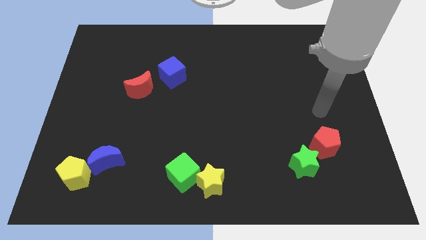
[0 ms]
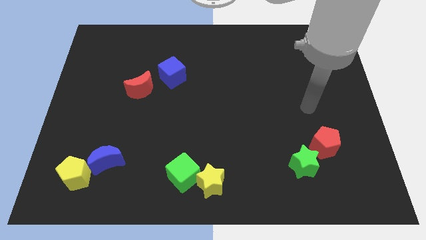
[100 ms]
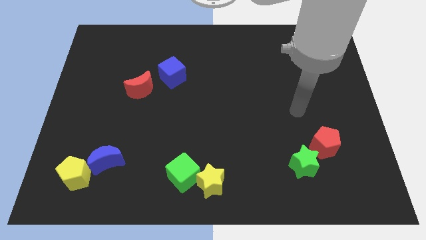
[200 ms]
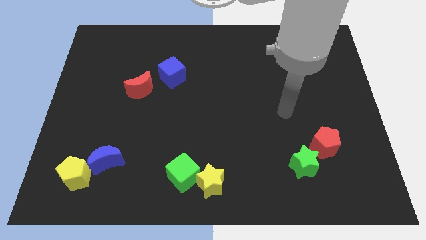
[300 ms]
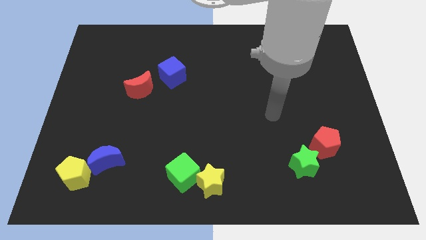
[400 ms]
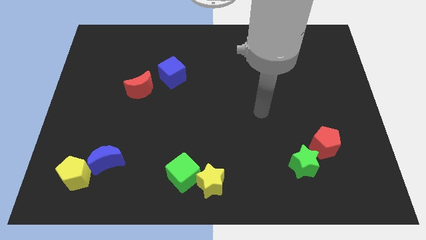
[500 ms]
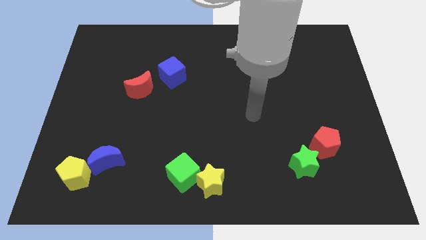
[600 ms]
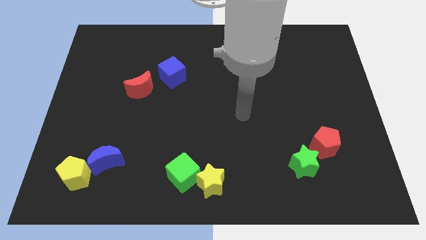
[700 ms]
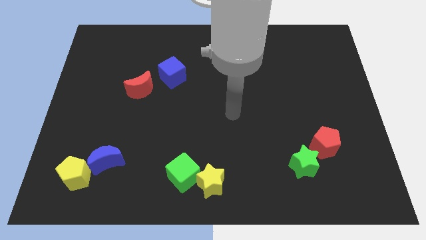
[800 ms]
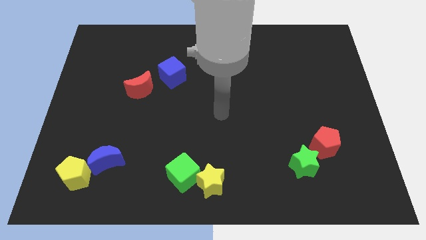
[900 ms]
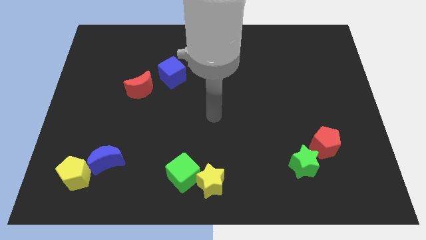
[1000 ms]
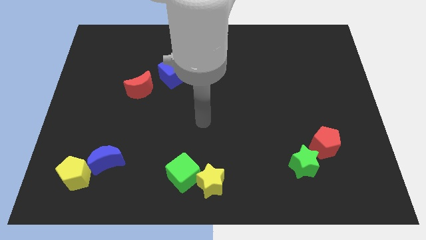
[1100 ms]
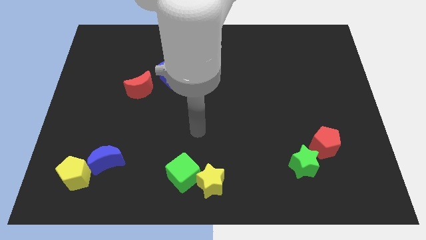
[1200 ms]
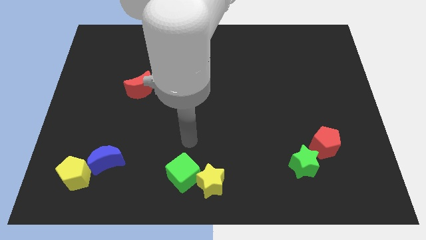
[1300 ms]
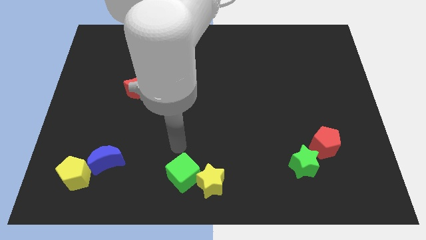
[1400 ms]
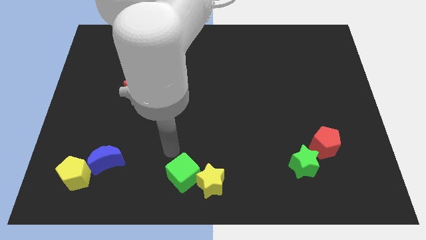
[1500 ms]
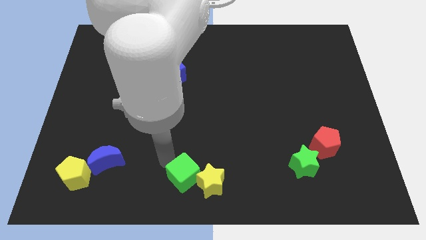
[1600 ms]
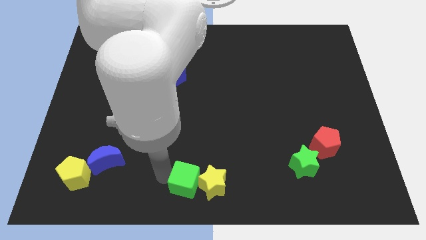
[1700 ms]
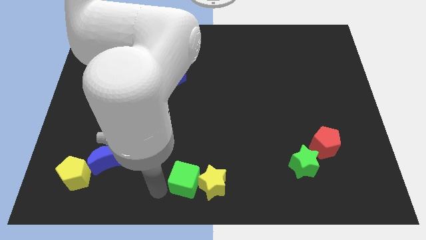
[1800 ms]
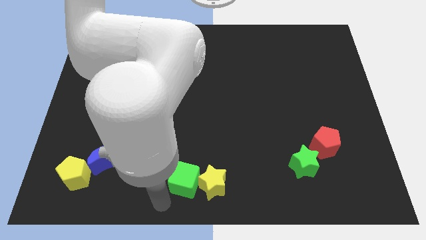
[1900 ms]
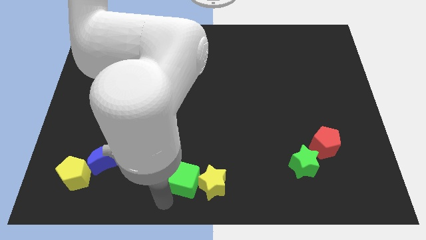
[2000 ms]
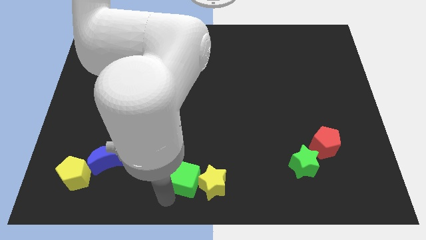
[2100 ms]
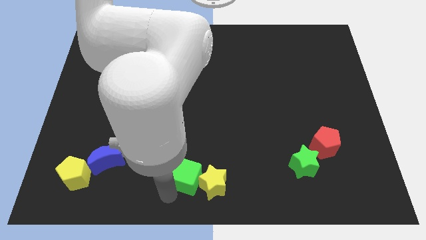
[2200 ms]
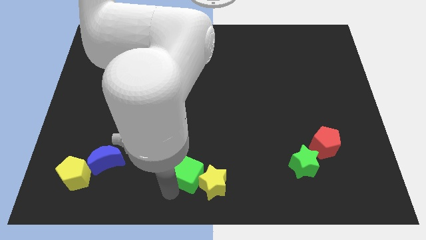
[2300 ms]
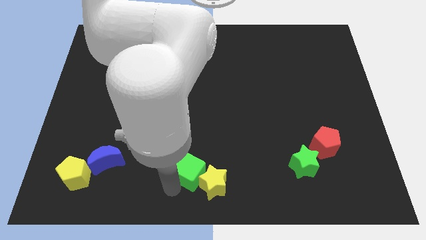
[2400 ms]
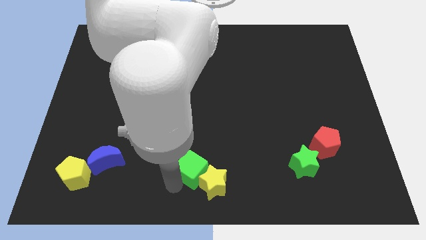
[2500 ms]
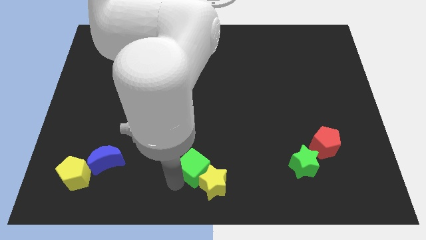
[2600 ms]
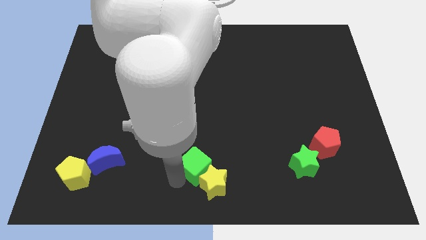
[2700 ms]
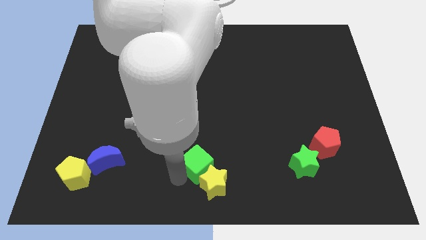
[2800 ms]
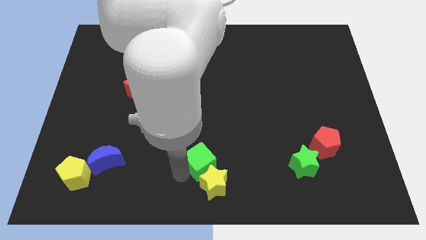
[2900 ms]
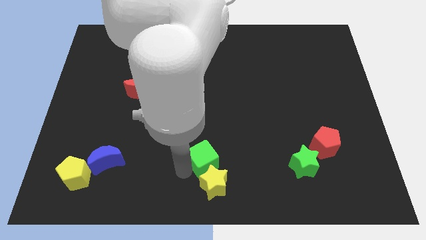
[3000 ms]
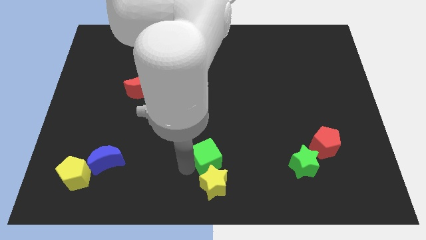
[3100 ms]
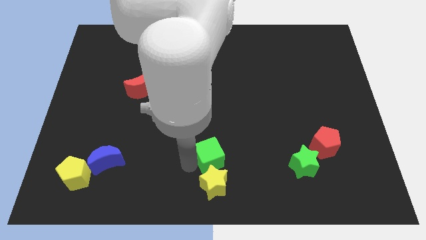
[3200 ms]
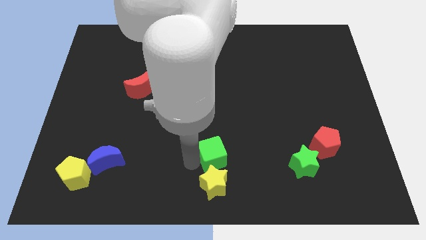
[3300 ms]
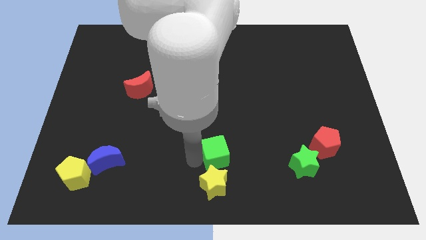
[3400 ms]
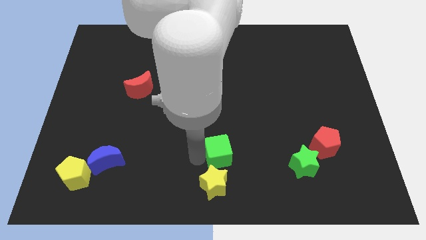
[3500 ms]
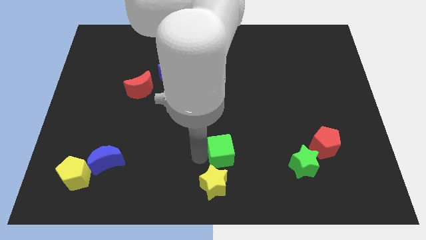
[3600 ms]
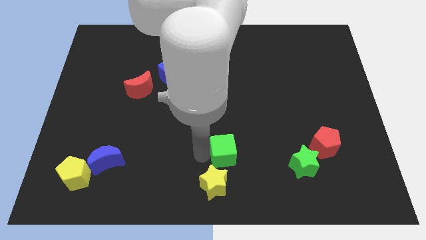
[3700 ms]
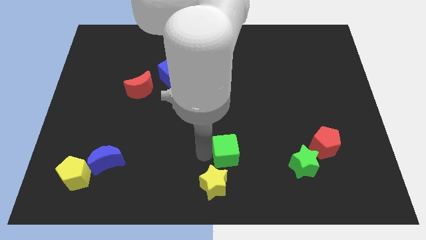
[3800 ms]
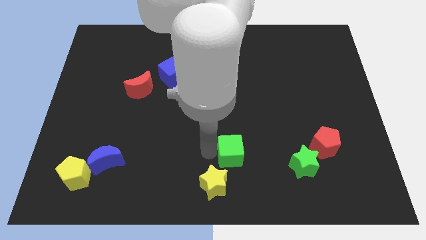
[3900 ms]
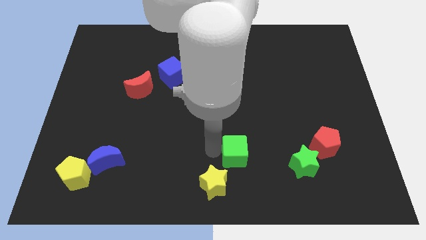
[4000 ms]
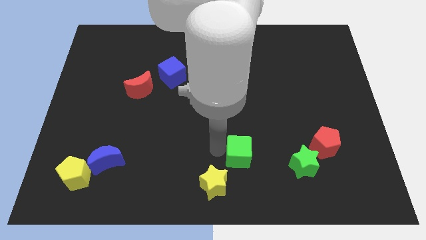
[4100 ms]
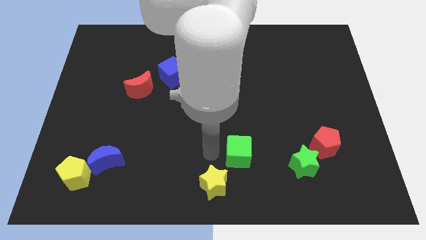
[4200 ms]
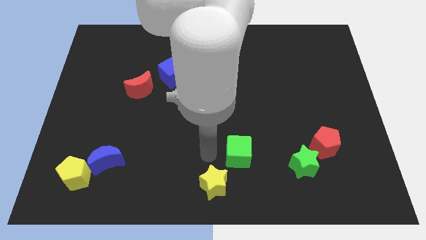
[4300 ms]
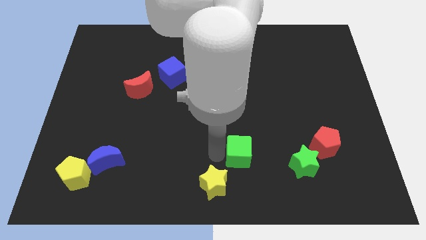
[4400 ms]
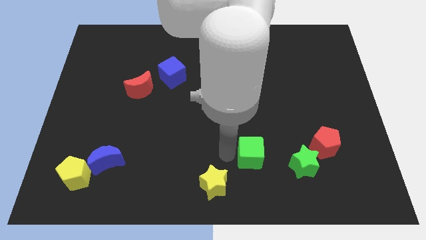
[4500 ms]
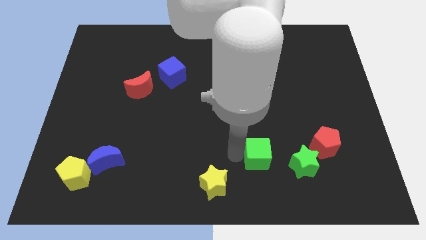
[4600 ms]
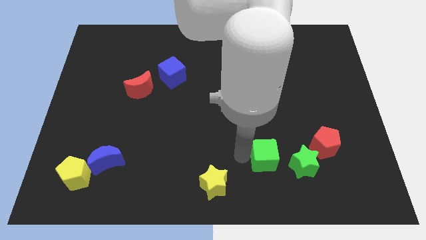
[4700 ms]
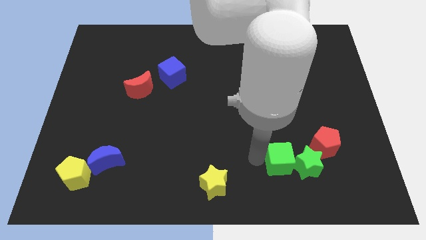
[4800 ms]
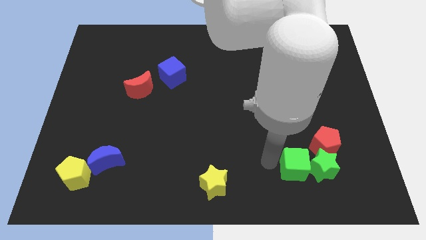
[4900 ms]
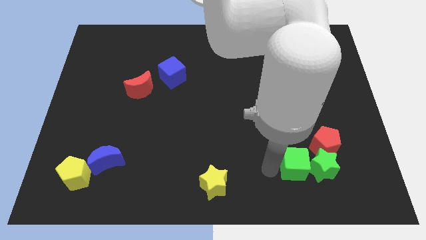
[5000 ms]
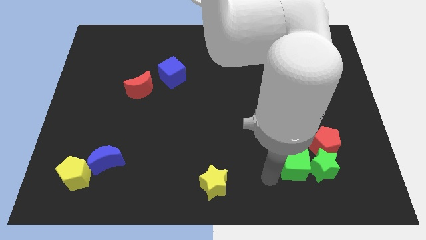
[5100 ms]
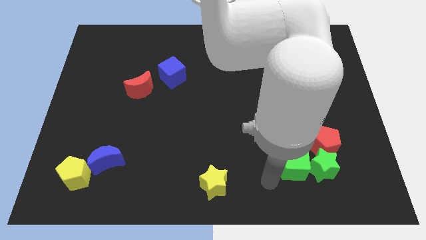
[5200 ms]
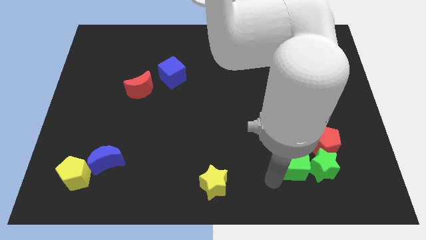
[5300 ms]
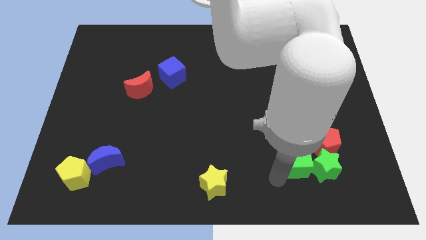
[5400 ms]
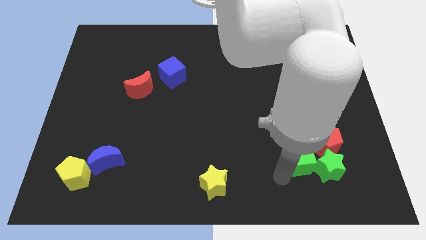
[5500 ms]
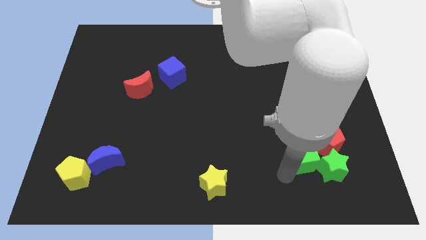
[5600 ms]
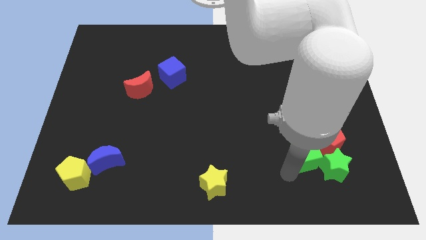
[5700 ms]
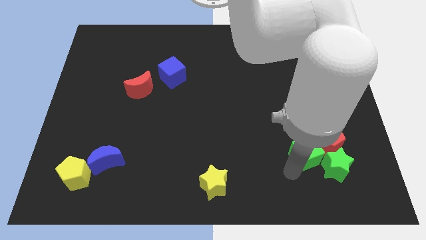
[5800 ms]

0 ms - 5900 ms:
push the green cube close to the red pentagon

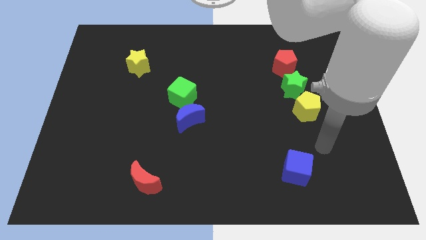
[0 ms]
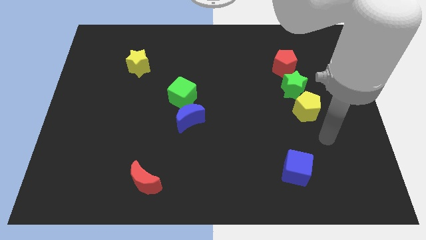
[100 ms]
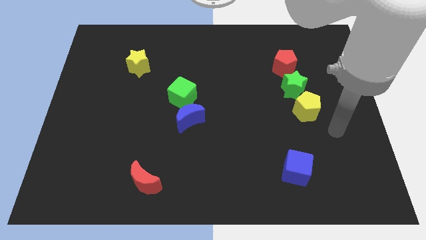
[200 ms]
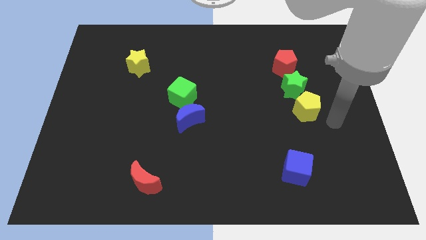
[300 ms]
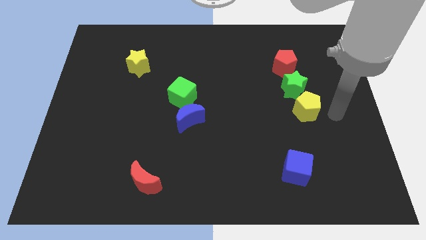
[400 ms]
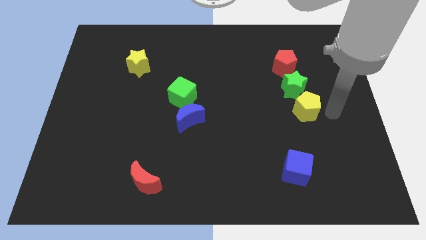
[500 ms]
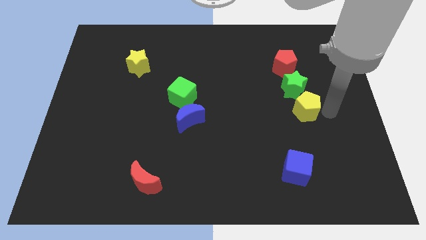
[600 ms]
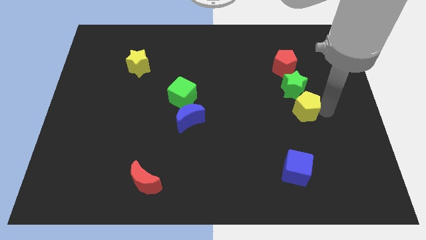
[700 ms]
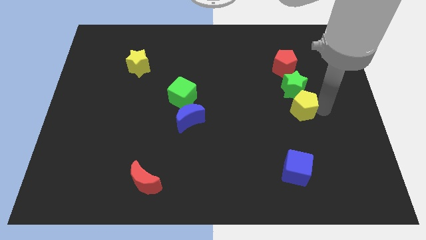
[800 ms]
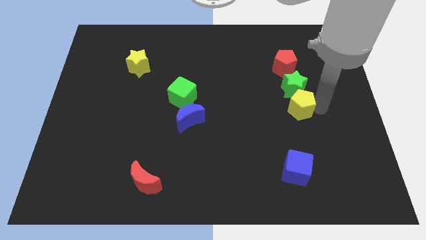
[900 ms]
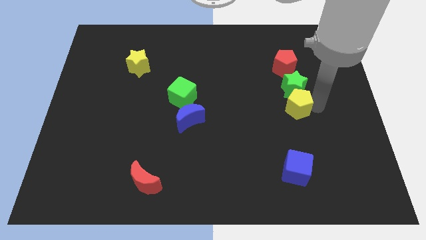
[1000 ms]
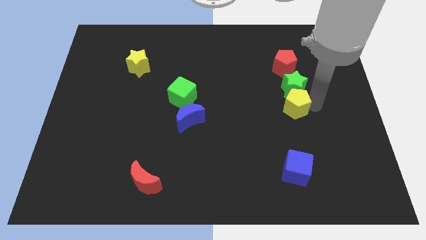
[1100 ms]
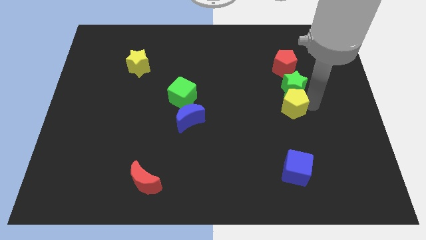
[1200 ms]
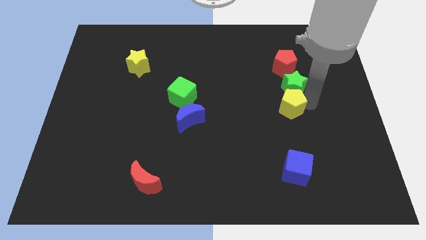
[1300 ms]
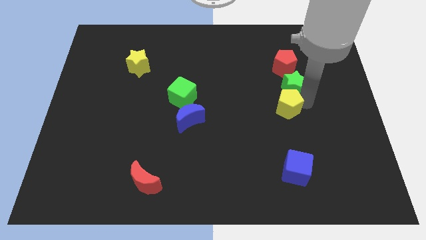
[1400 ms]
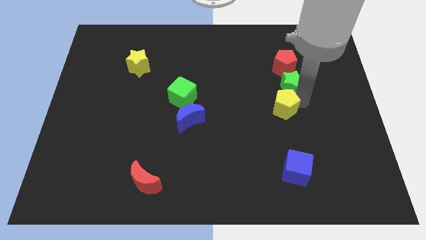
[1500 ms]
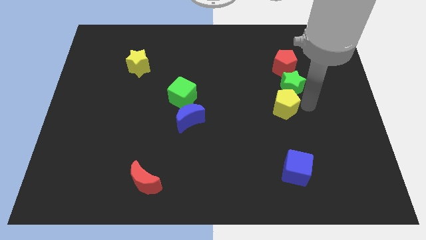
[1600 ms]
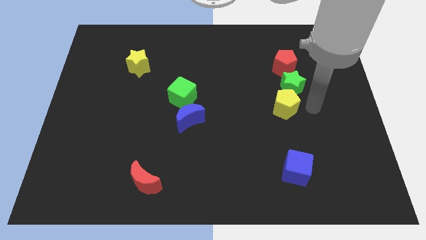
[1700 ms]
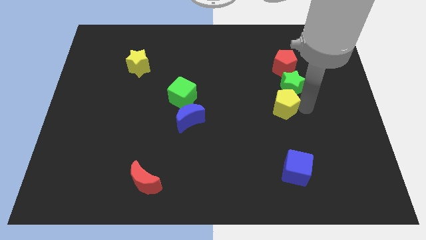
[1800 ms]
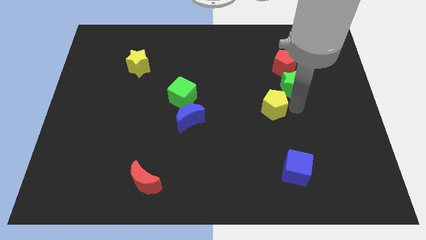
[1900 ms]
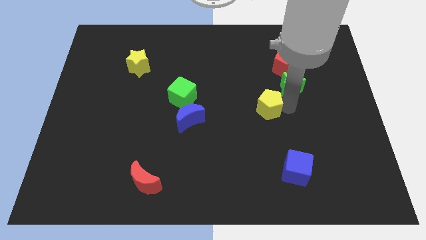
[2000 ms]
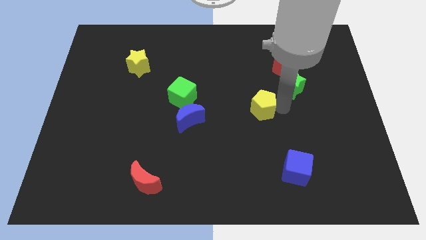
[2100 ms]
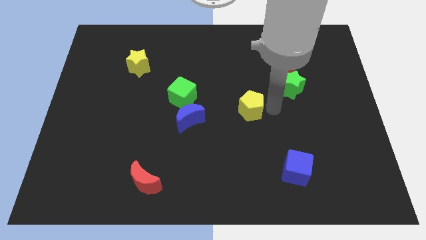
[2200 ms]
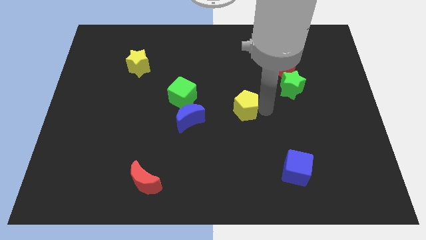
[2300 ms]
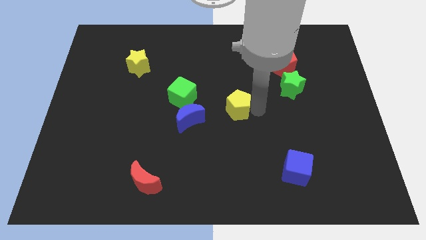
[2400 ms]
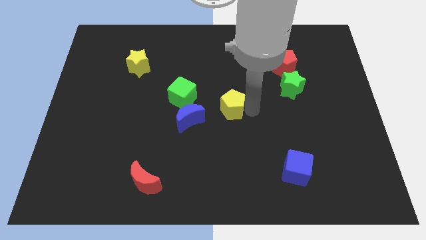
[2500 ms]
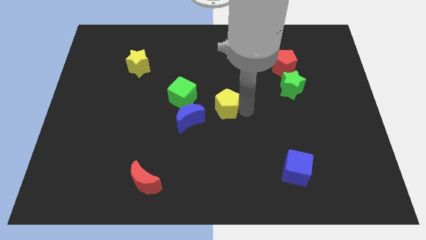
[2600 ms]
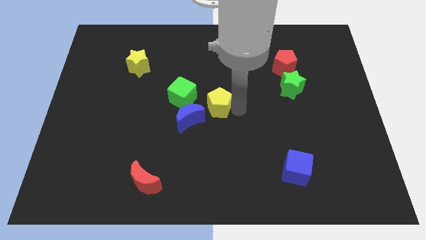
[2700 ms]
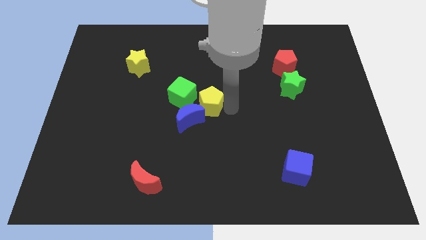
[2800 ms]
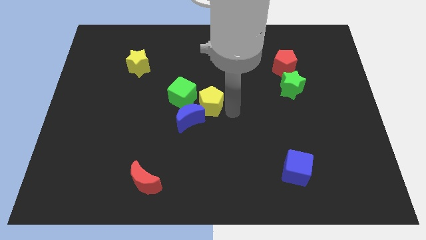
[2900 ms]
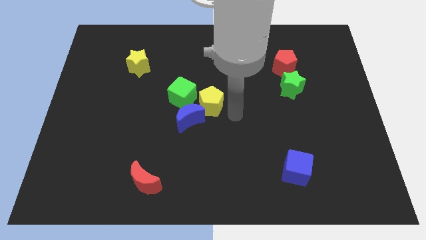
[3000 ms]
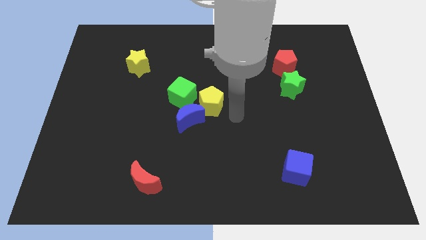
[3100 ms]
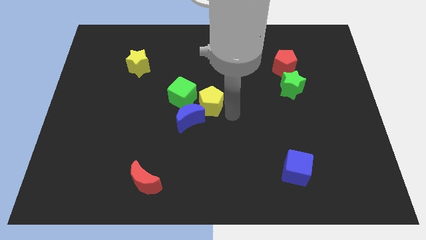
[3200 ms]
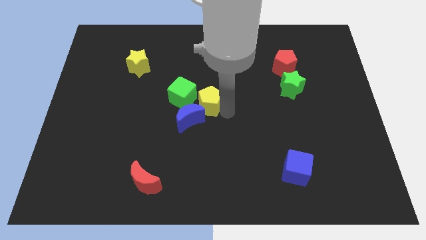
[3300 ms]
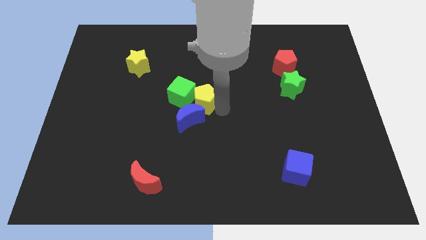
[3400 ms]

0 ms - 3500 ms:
slide the yellow pentagon close to the green cube
